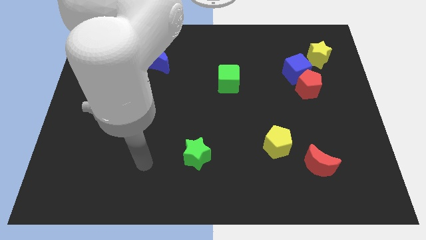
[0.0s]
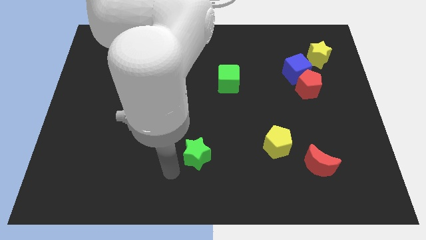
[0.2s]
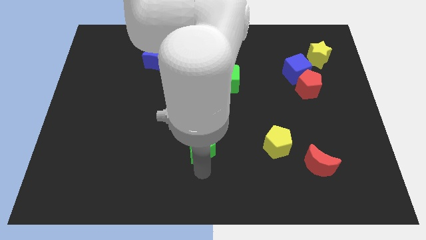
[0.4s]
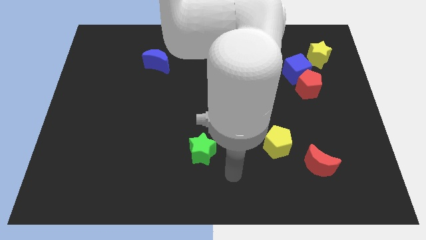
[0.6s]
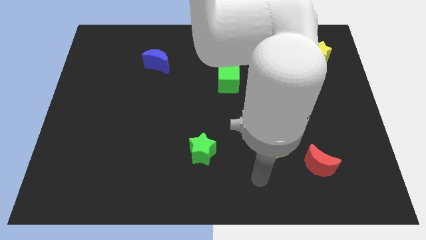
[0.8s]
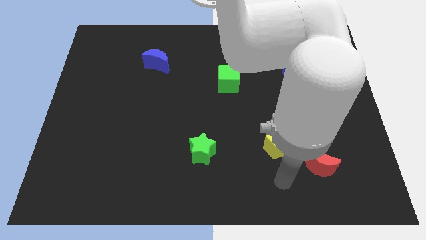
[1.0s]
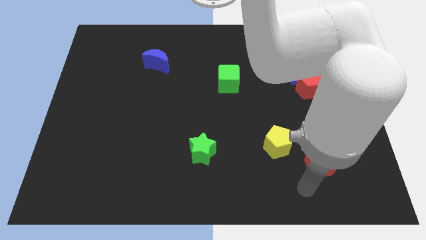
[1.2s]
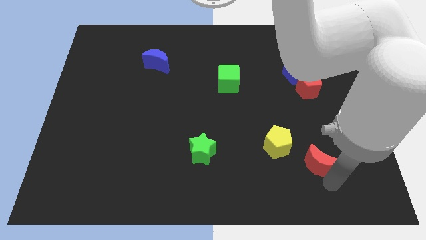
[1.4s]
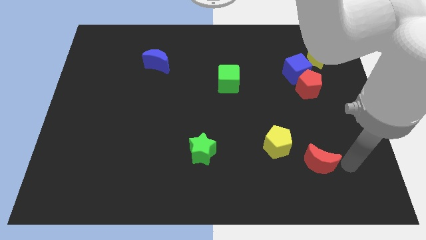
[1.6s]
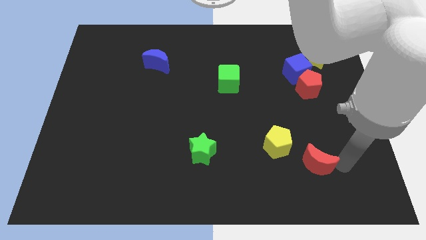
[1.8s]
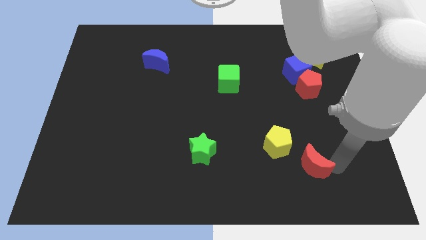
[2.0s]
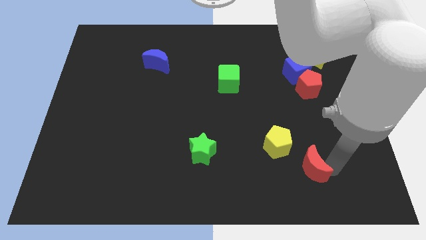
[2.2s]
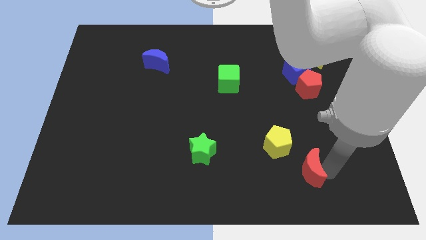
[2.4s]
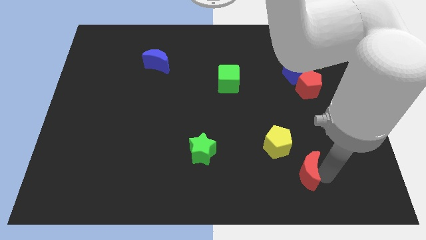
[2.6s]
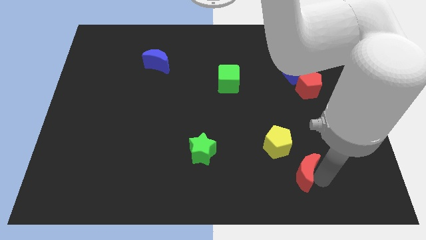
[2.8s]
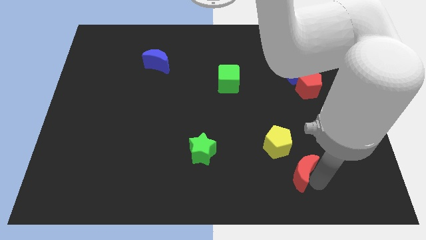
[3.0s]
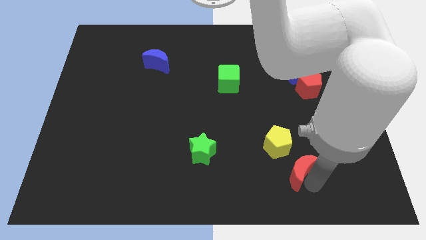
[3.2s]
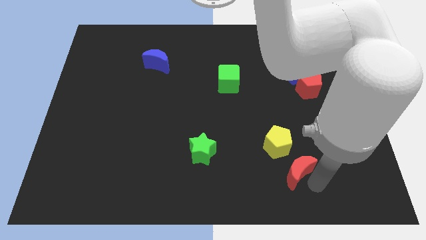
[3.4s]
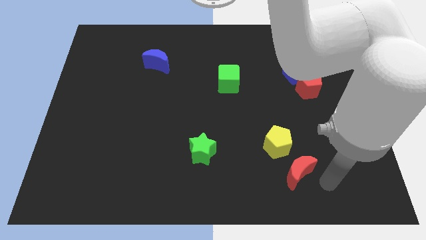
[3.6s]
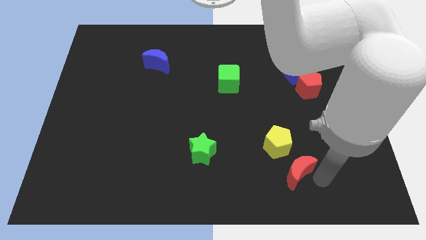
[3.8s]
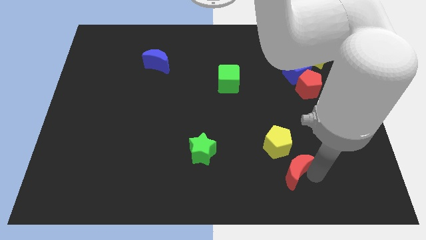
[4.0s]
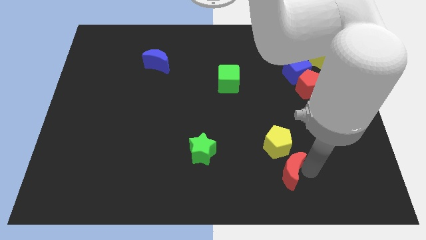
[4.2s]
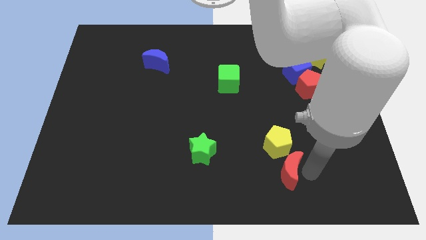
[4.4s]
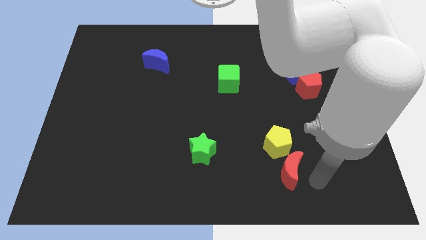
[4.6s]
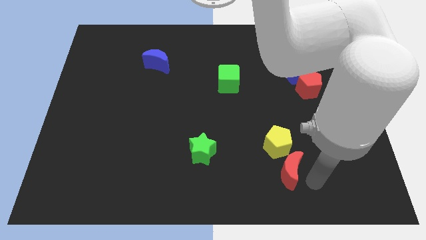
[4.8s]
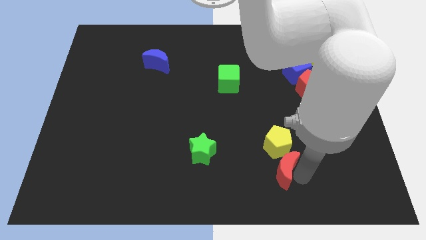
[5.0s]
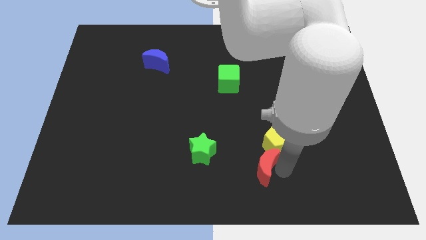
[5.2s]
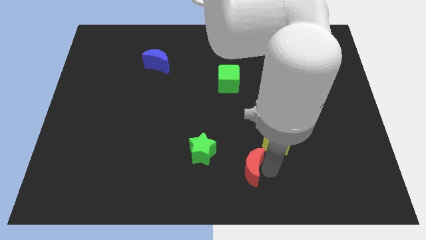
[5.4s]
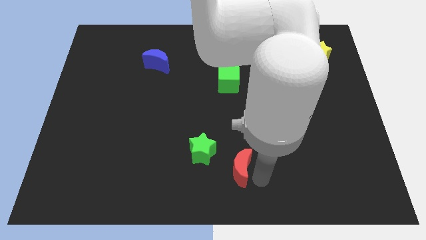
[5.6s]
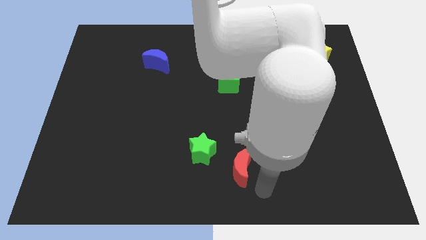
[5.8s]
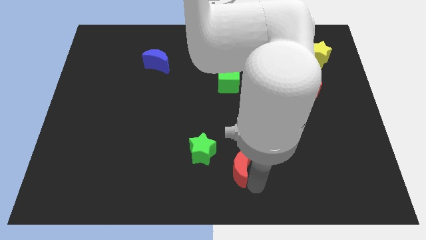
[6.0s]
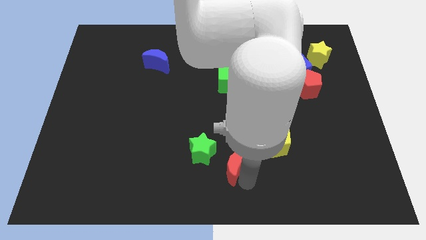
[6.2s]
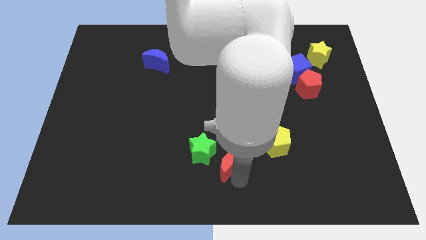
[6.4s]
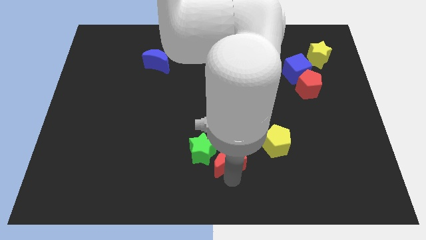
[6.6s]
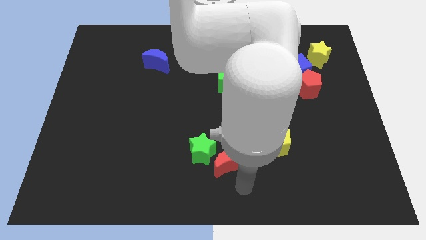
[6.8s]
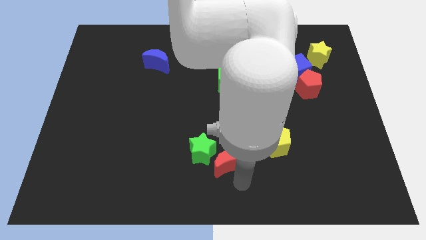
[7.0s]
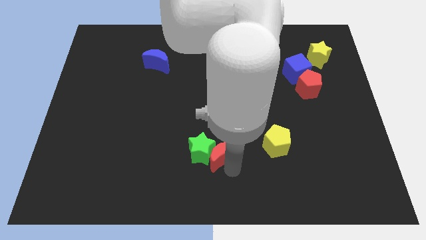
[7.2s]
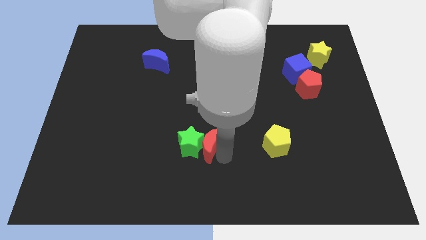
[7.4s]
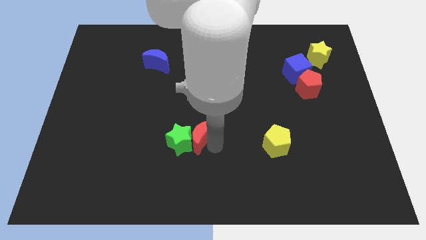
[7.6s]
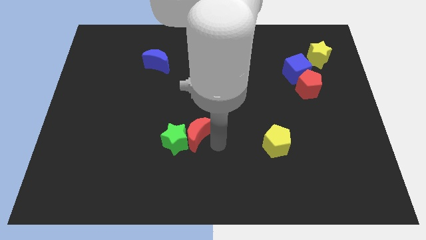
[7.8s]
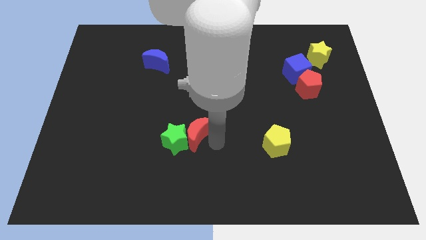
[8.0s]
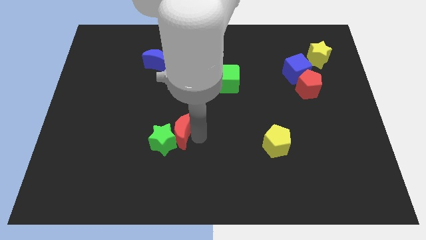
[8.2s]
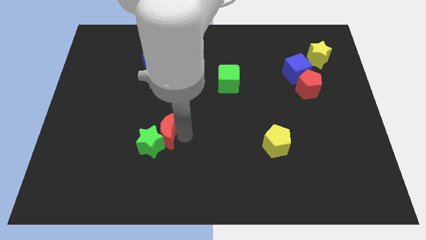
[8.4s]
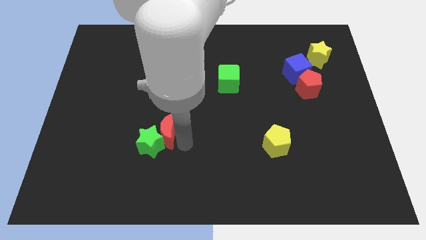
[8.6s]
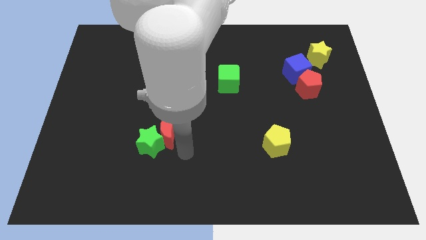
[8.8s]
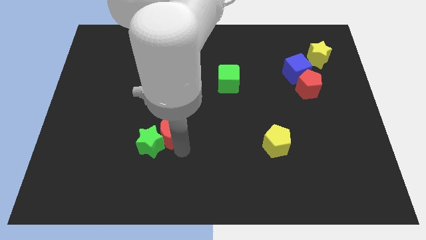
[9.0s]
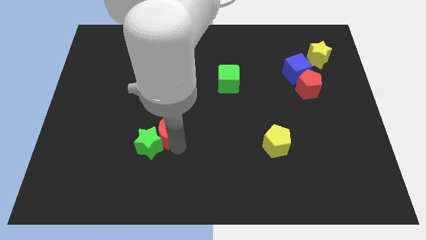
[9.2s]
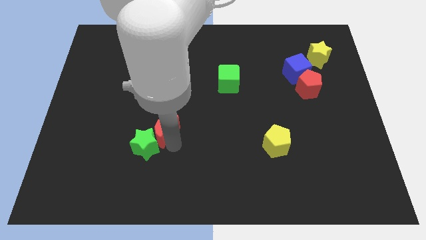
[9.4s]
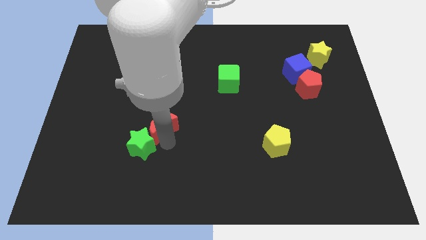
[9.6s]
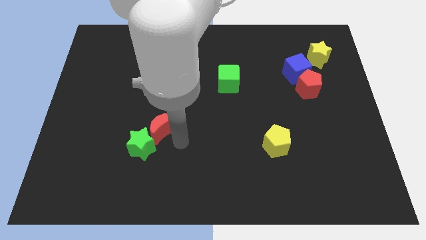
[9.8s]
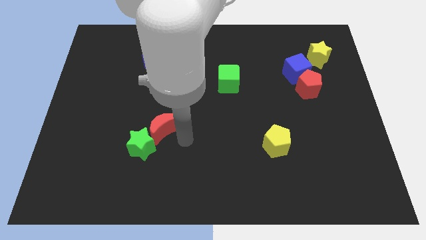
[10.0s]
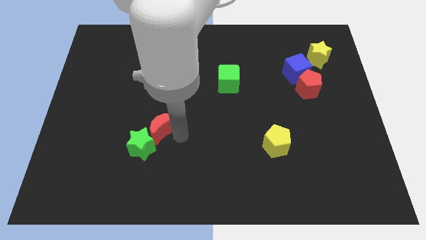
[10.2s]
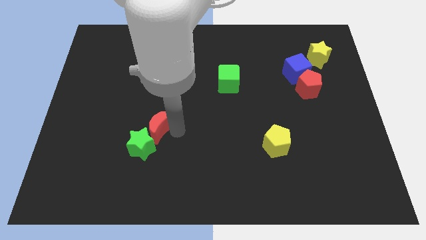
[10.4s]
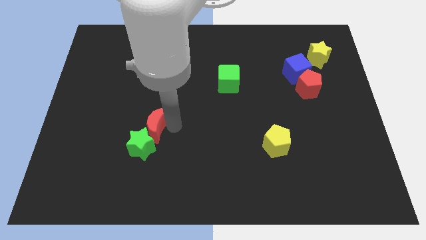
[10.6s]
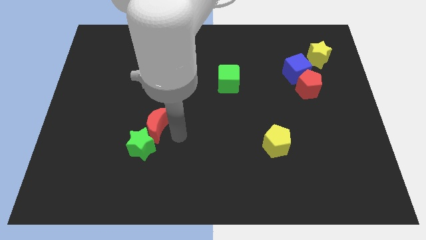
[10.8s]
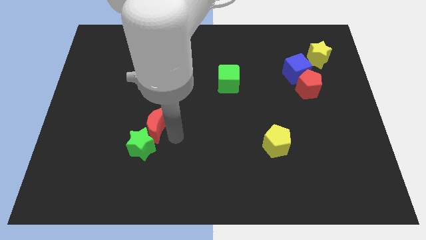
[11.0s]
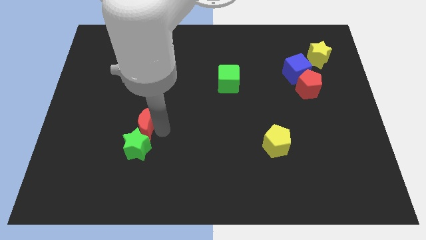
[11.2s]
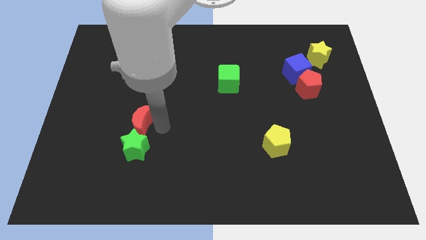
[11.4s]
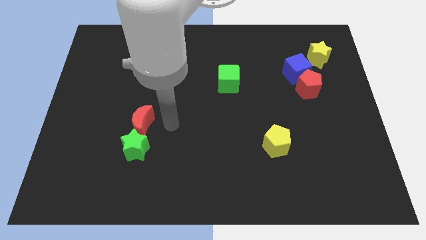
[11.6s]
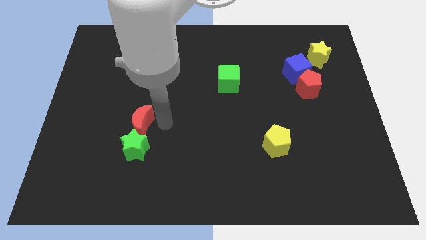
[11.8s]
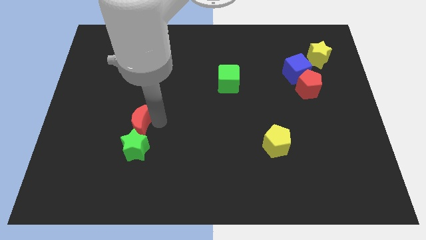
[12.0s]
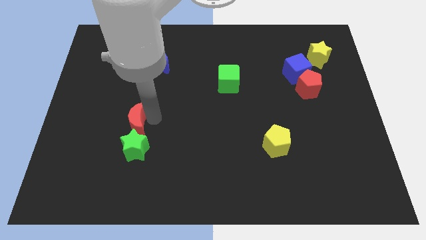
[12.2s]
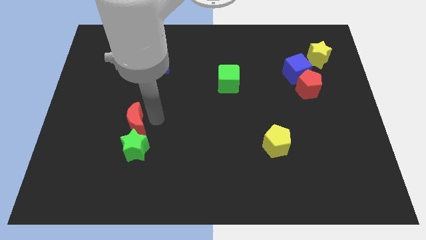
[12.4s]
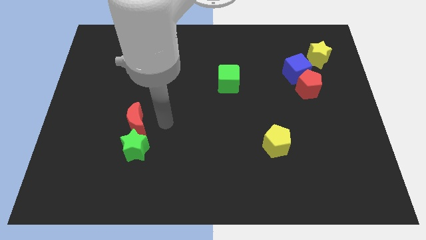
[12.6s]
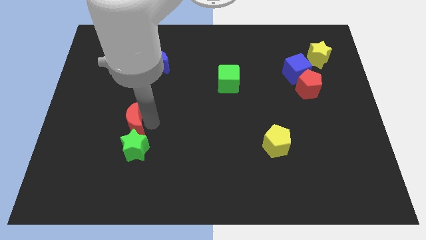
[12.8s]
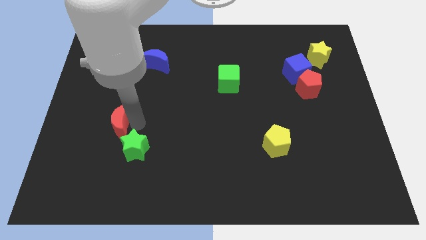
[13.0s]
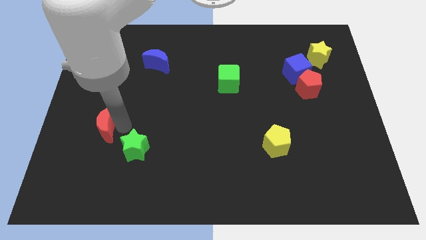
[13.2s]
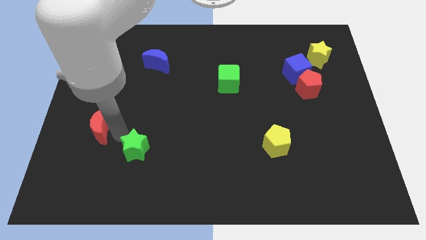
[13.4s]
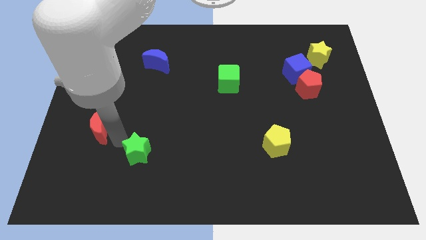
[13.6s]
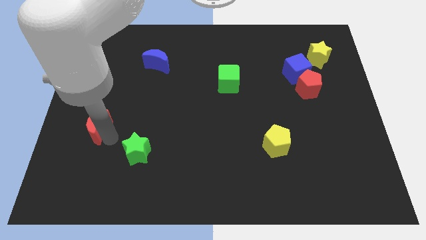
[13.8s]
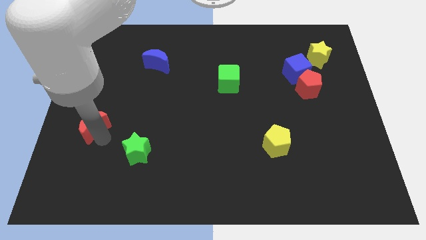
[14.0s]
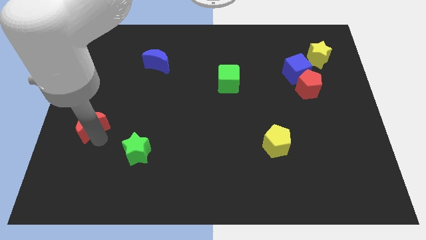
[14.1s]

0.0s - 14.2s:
move the red moon to the left side of the board

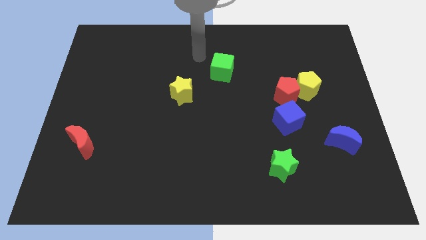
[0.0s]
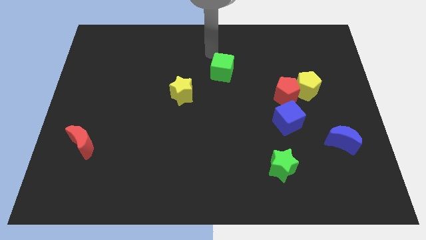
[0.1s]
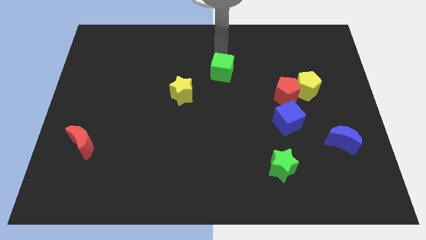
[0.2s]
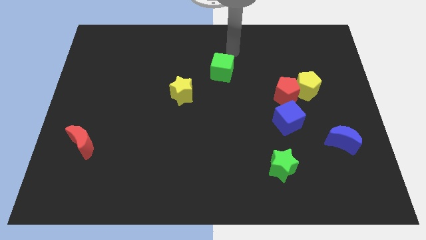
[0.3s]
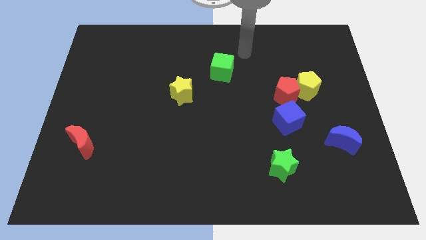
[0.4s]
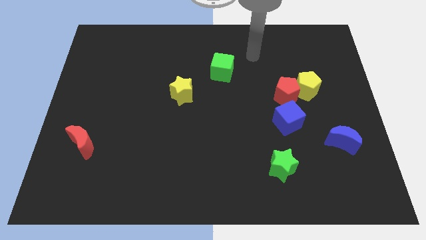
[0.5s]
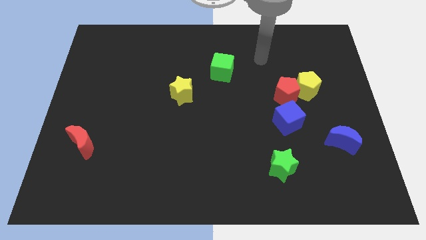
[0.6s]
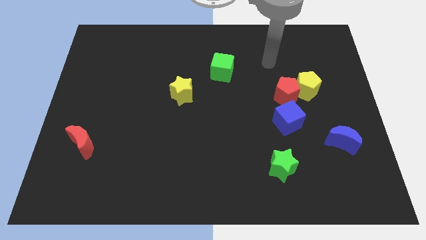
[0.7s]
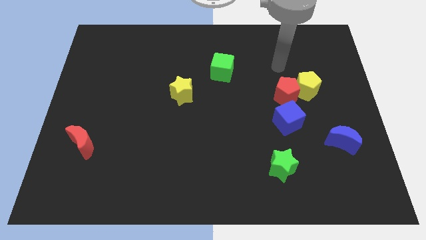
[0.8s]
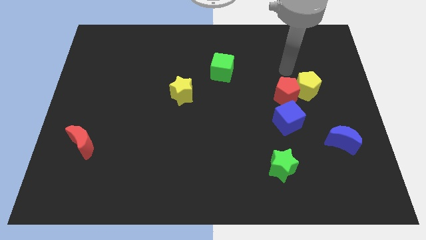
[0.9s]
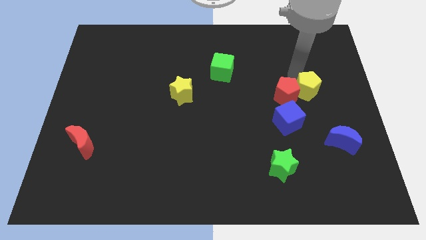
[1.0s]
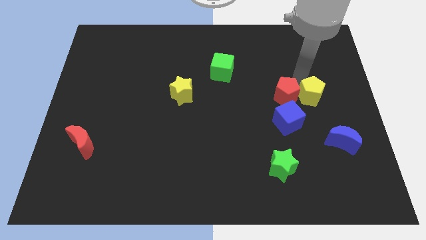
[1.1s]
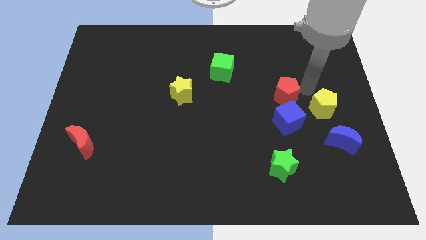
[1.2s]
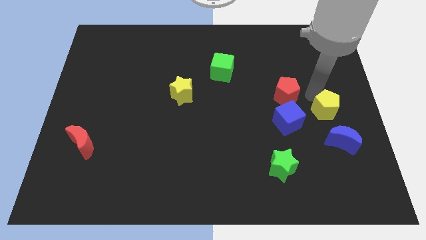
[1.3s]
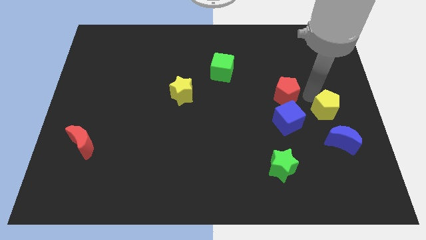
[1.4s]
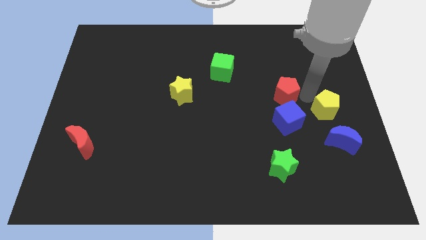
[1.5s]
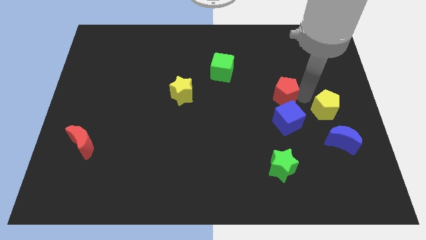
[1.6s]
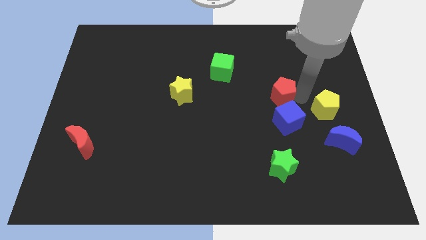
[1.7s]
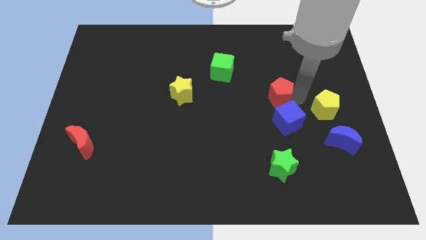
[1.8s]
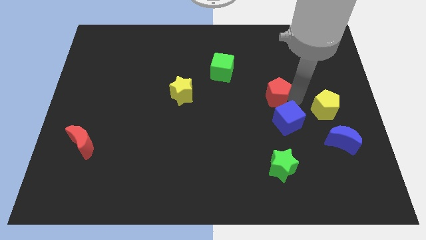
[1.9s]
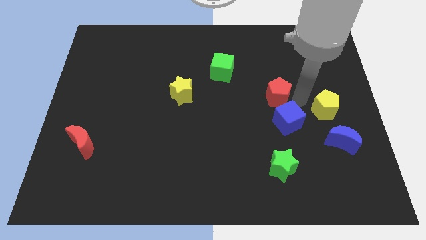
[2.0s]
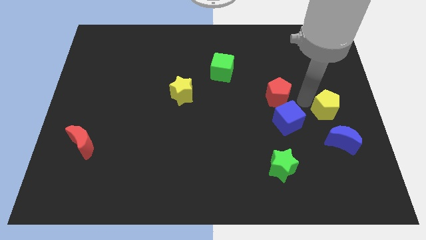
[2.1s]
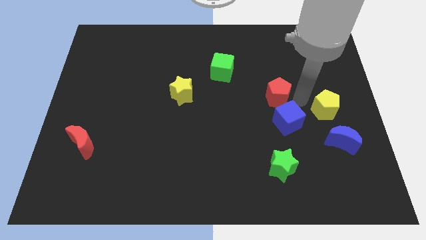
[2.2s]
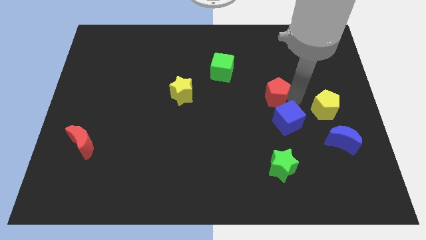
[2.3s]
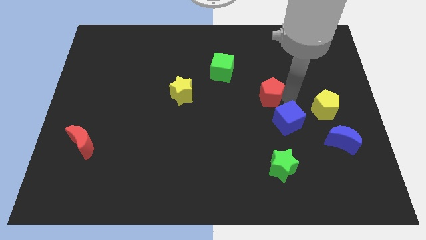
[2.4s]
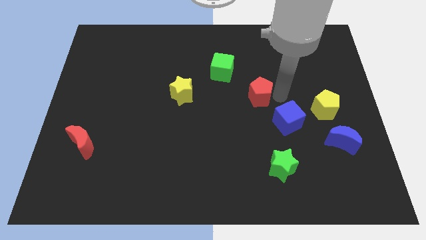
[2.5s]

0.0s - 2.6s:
push the red pentagon to the center
